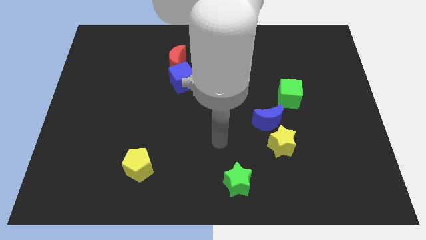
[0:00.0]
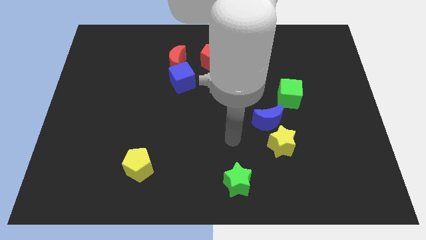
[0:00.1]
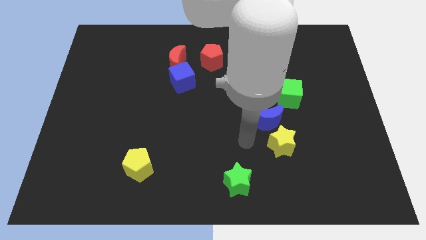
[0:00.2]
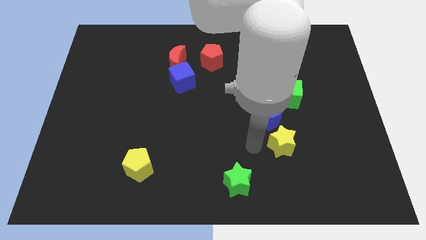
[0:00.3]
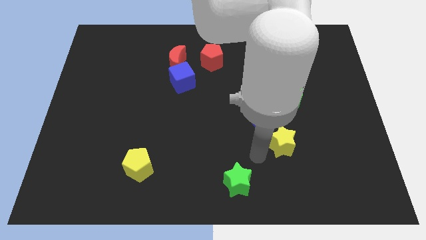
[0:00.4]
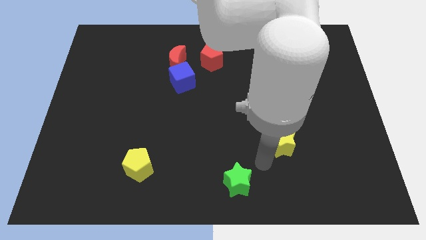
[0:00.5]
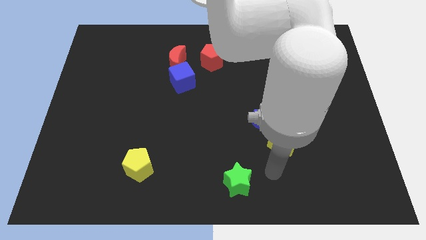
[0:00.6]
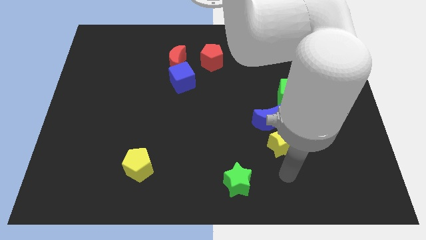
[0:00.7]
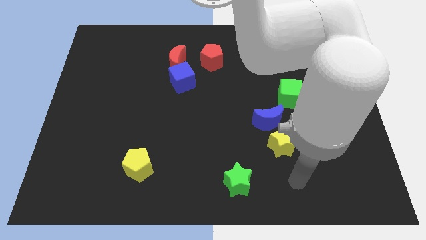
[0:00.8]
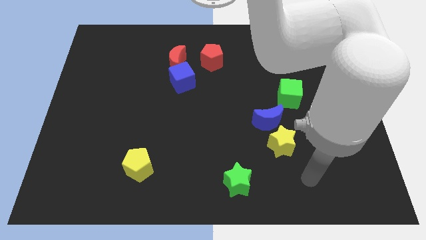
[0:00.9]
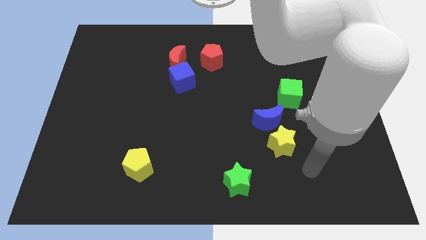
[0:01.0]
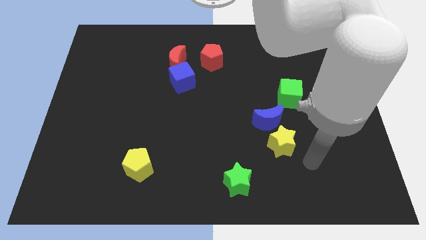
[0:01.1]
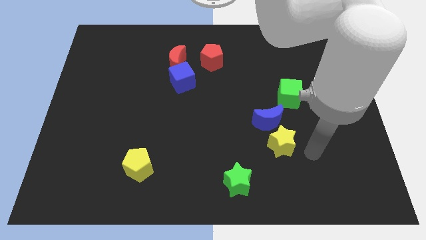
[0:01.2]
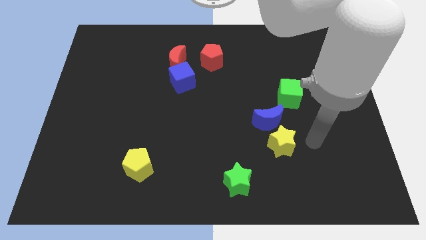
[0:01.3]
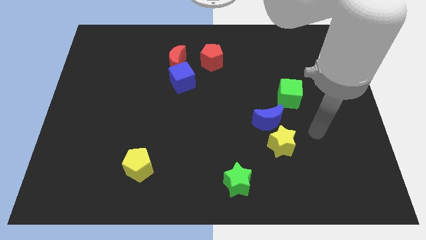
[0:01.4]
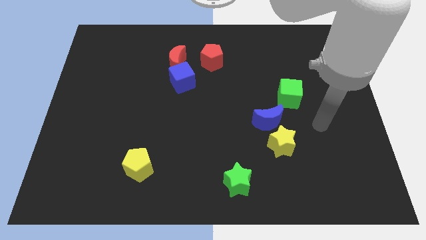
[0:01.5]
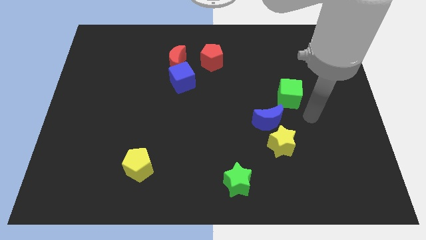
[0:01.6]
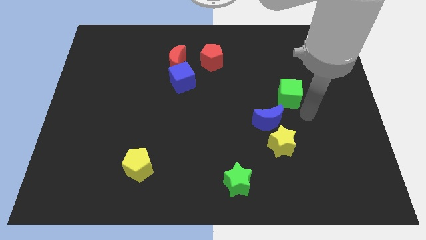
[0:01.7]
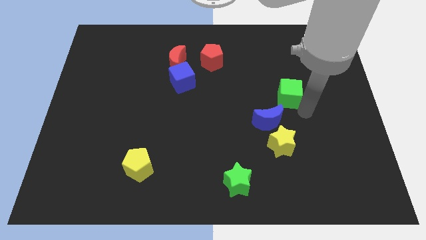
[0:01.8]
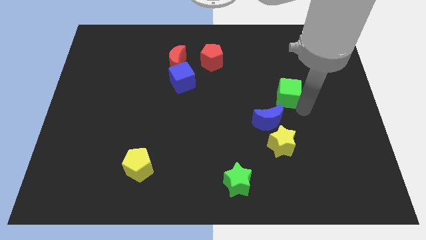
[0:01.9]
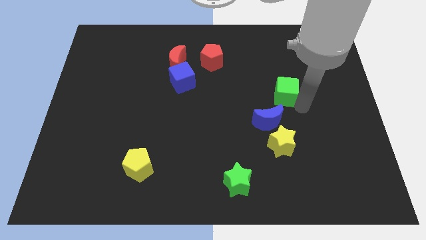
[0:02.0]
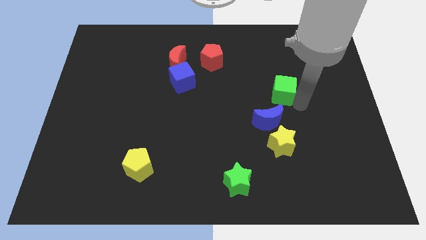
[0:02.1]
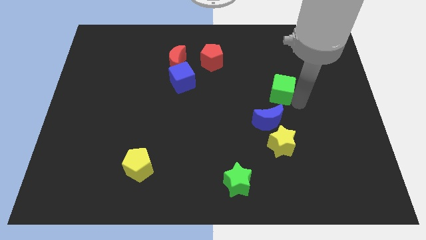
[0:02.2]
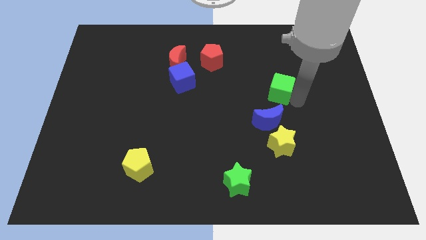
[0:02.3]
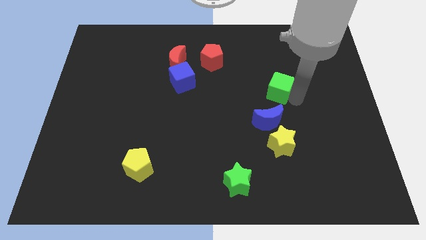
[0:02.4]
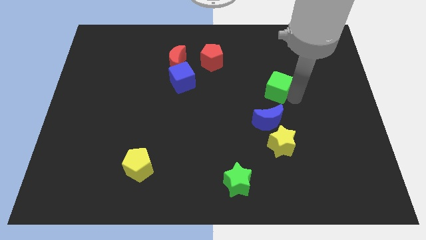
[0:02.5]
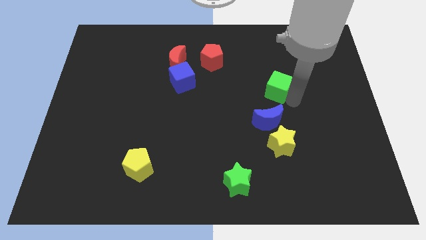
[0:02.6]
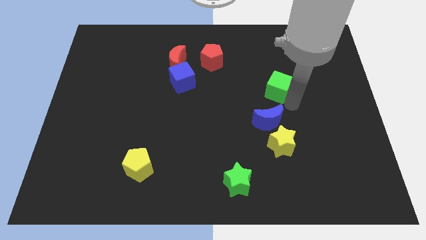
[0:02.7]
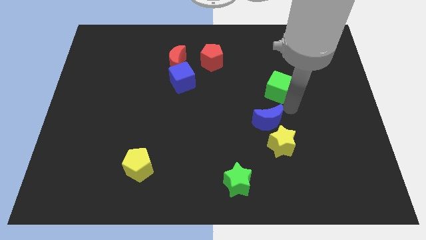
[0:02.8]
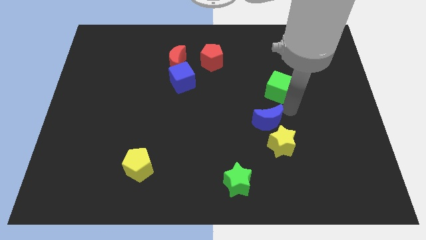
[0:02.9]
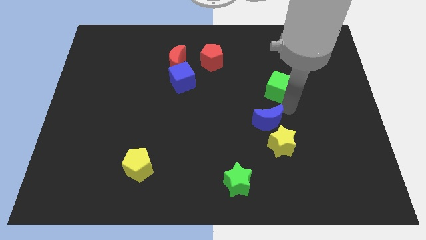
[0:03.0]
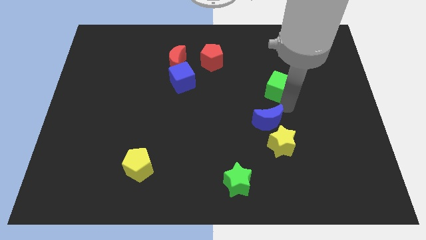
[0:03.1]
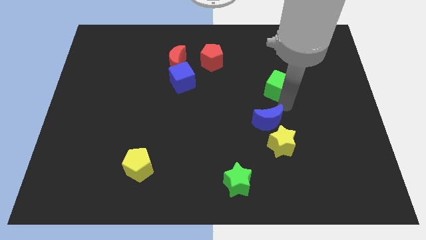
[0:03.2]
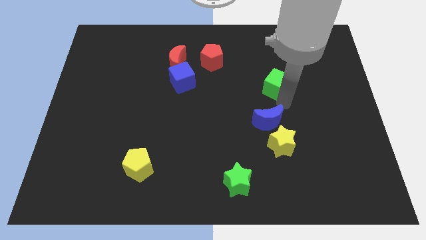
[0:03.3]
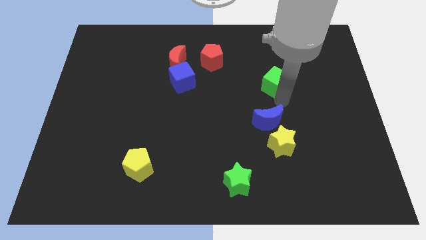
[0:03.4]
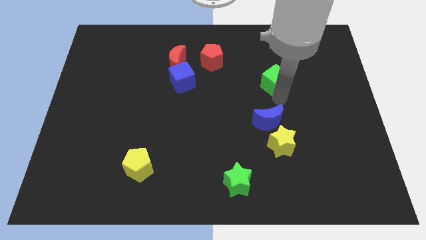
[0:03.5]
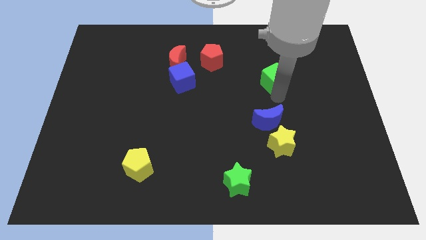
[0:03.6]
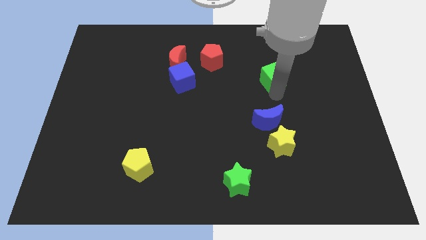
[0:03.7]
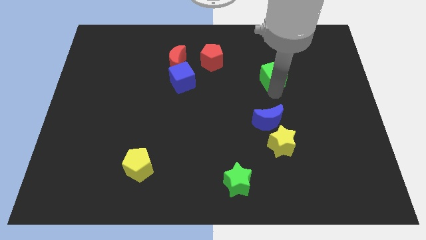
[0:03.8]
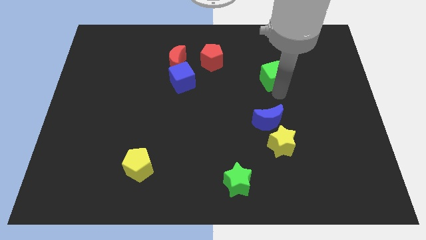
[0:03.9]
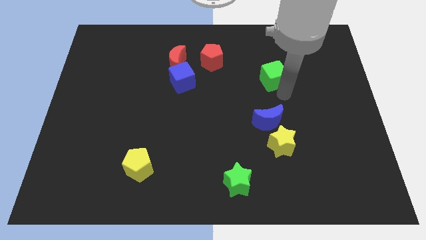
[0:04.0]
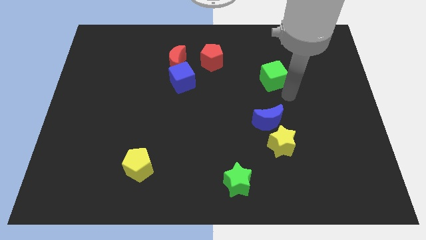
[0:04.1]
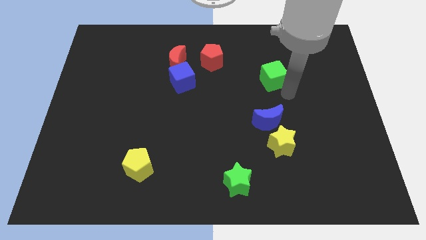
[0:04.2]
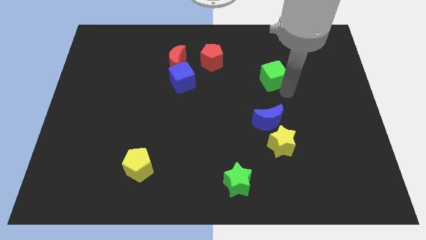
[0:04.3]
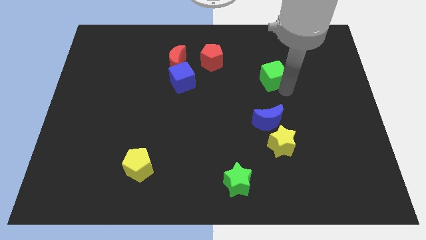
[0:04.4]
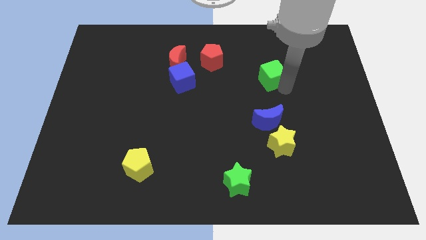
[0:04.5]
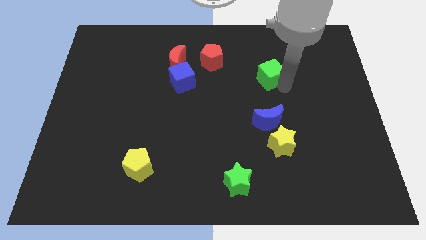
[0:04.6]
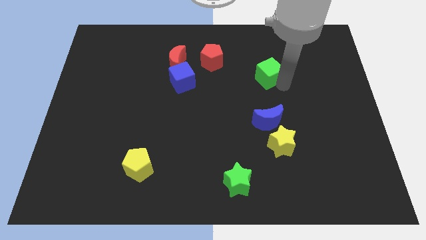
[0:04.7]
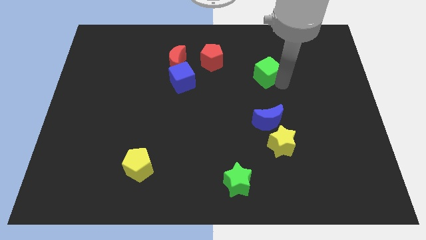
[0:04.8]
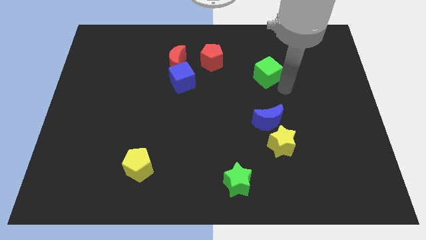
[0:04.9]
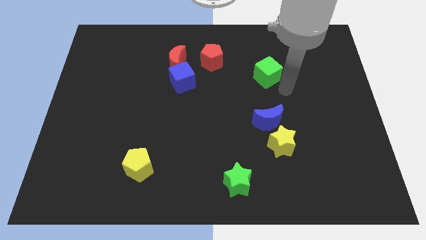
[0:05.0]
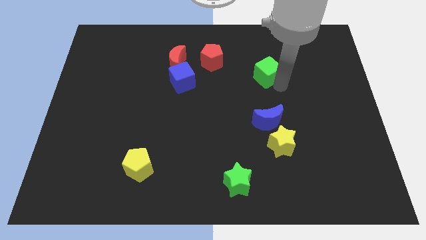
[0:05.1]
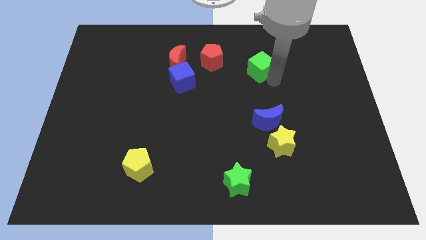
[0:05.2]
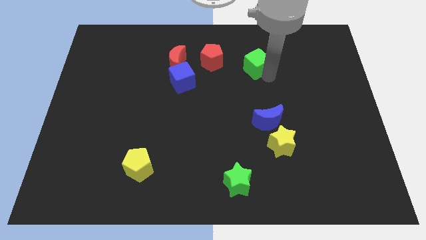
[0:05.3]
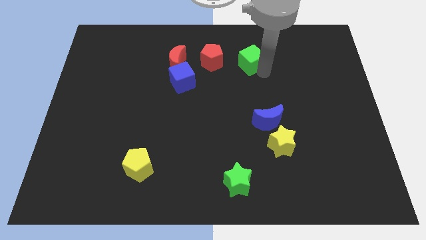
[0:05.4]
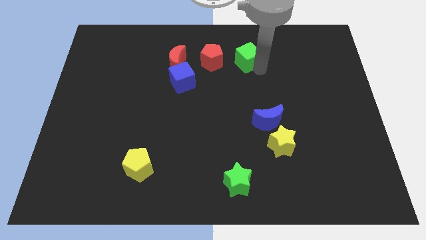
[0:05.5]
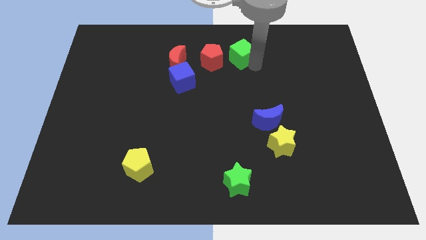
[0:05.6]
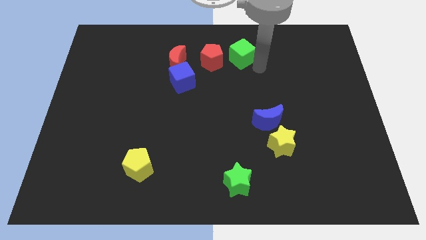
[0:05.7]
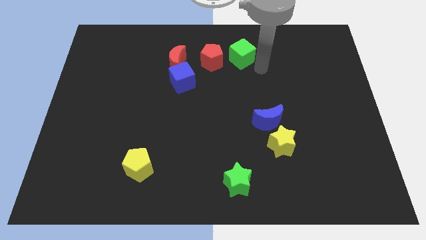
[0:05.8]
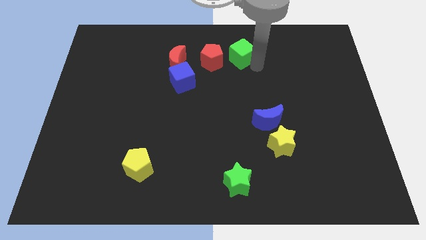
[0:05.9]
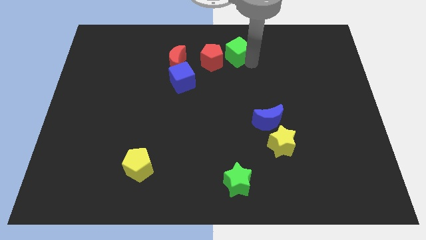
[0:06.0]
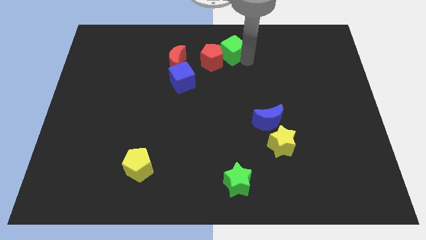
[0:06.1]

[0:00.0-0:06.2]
move the green cube to the towards your base

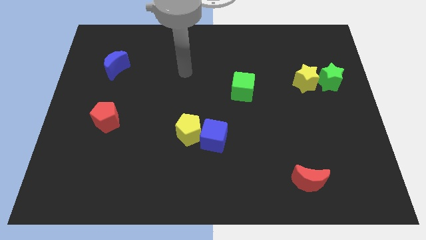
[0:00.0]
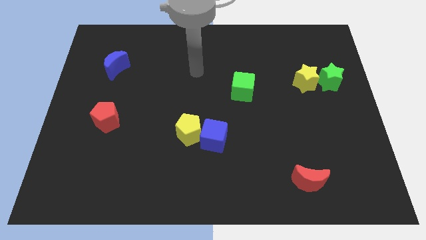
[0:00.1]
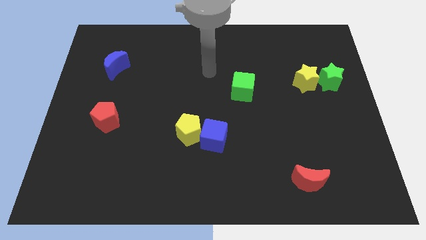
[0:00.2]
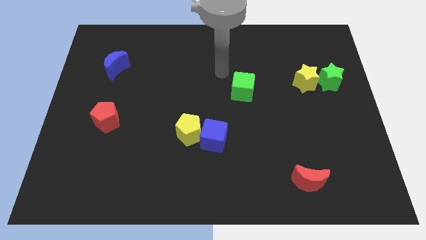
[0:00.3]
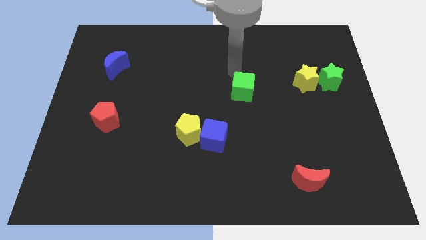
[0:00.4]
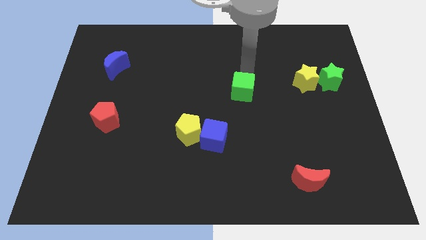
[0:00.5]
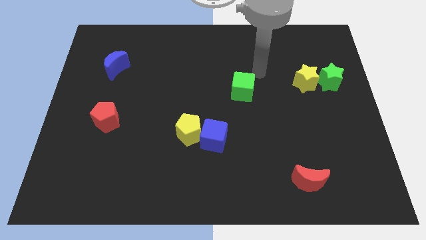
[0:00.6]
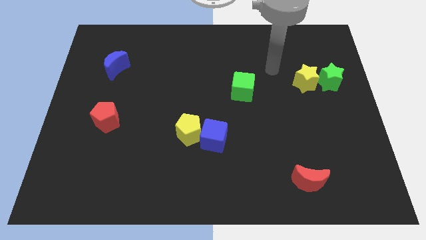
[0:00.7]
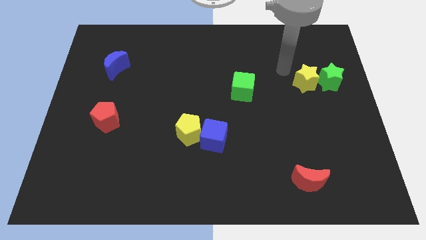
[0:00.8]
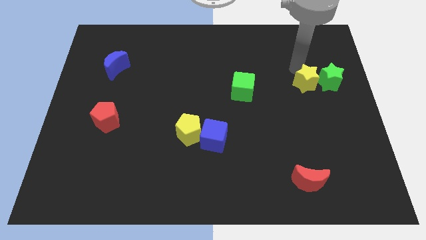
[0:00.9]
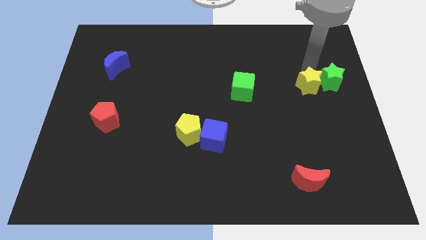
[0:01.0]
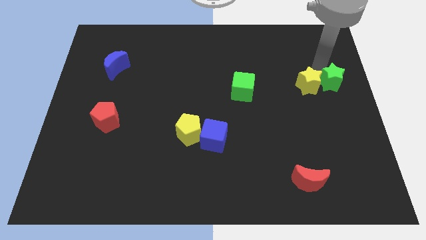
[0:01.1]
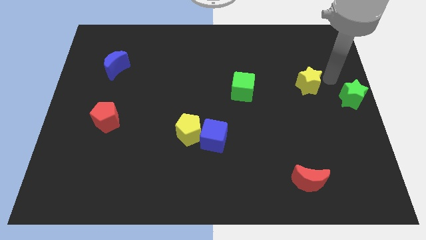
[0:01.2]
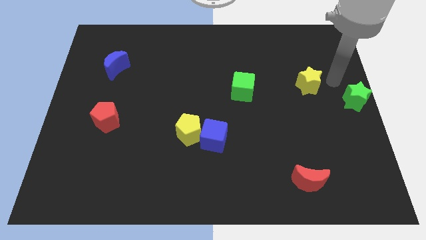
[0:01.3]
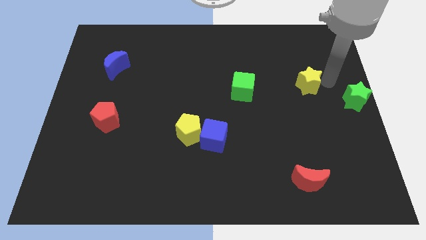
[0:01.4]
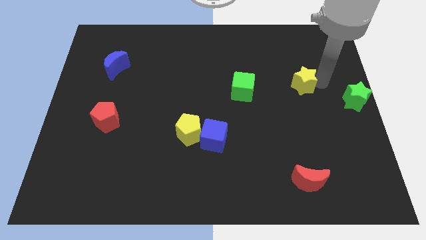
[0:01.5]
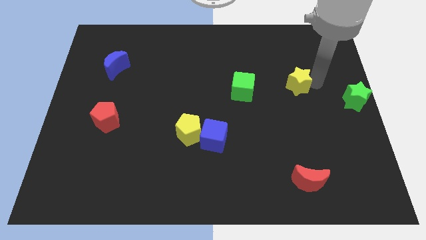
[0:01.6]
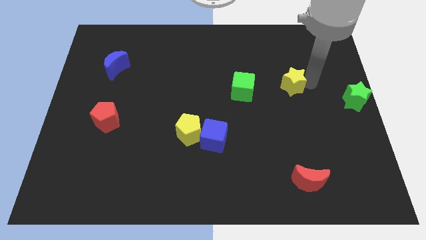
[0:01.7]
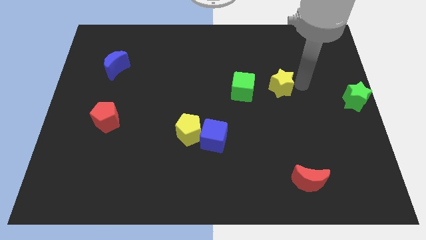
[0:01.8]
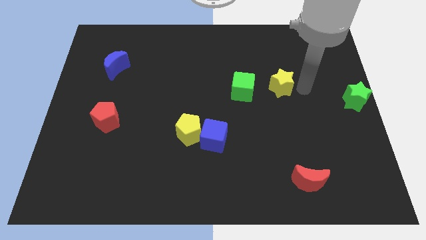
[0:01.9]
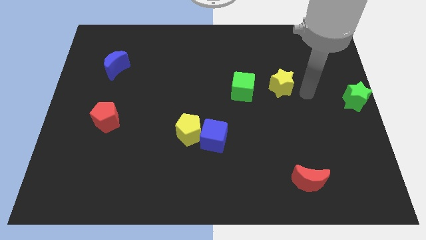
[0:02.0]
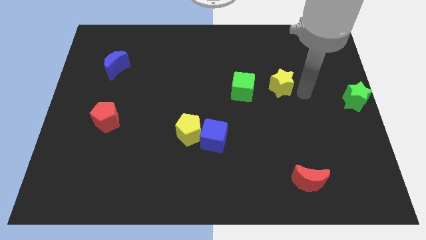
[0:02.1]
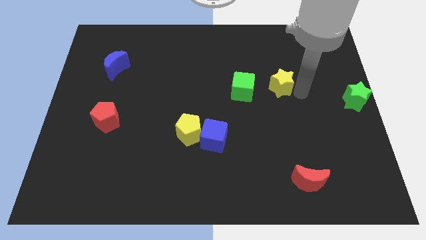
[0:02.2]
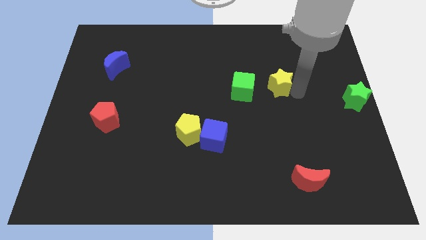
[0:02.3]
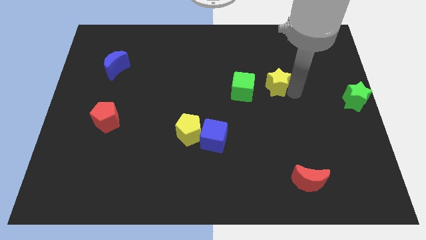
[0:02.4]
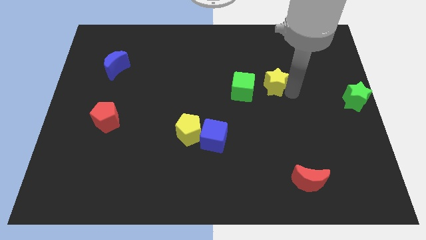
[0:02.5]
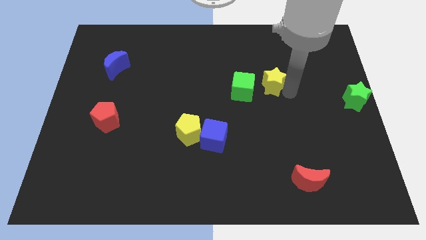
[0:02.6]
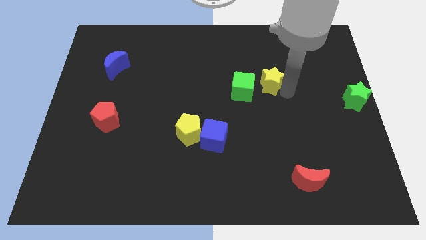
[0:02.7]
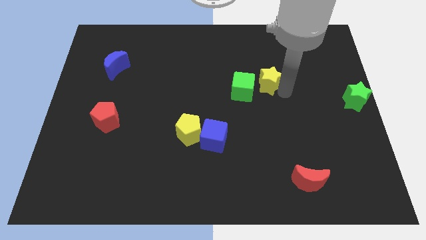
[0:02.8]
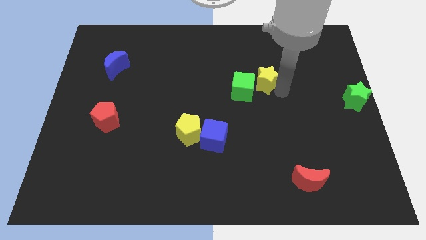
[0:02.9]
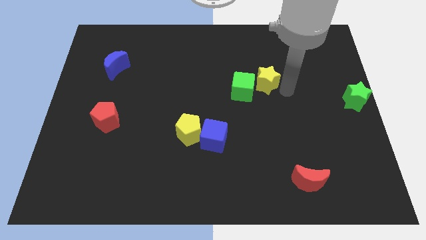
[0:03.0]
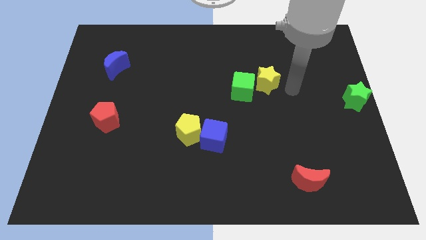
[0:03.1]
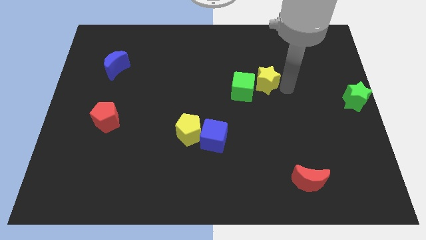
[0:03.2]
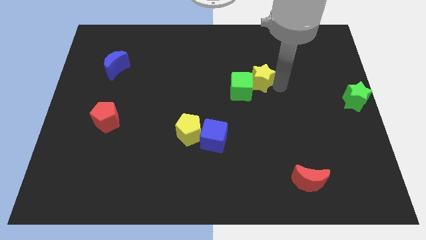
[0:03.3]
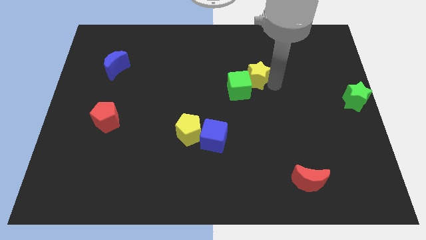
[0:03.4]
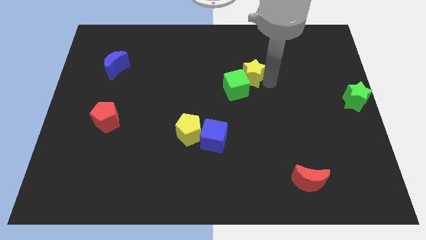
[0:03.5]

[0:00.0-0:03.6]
slide the yellow star to the center
